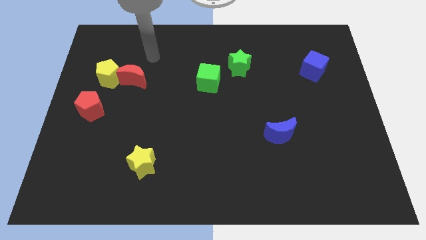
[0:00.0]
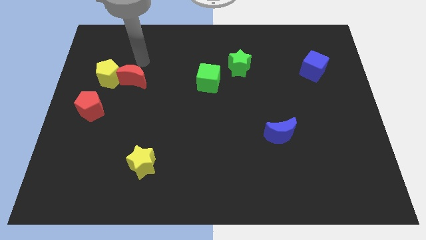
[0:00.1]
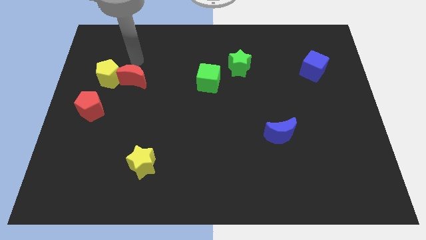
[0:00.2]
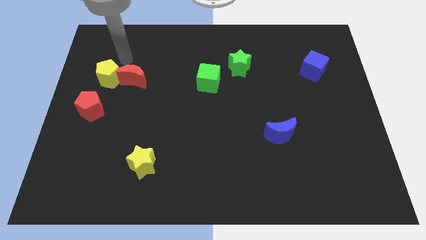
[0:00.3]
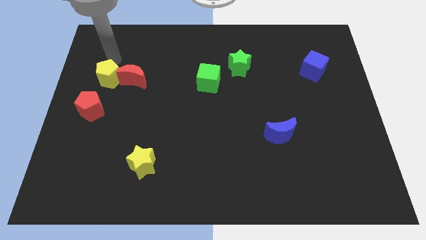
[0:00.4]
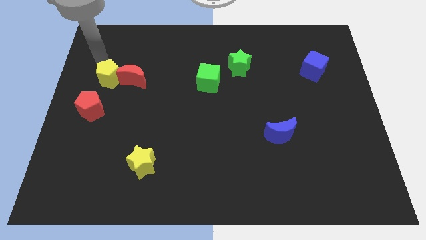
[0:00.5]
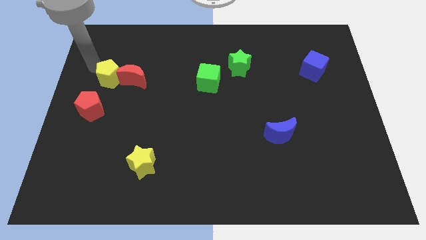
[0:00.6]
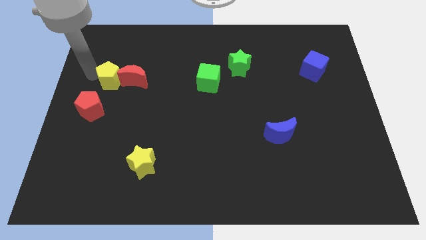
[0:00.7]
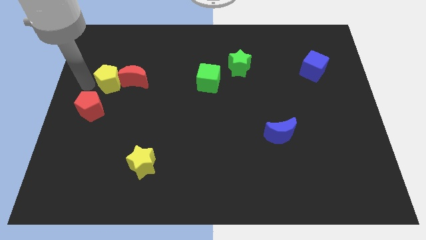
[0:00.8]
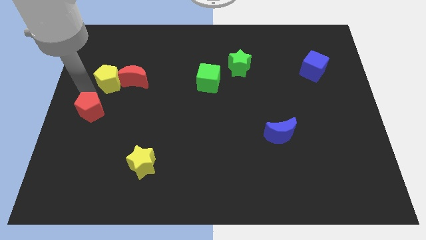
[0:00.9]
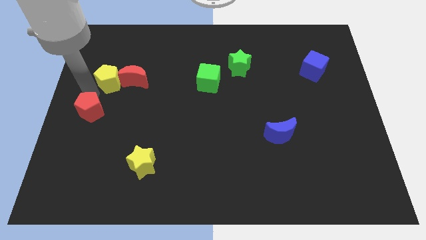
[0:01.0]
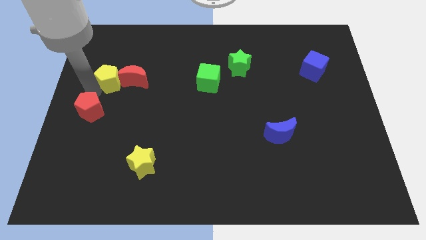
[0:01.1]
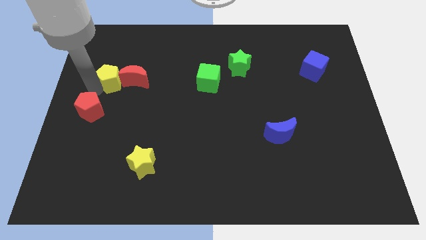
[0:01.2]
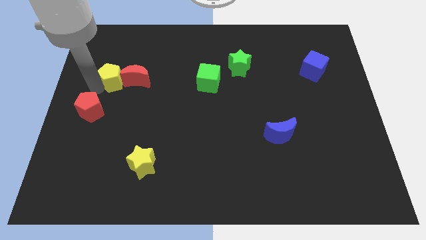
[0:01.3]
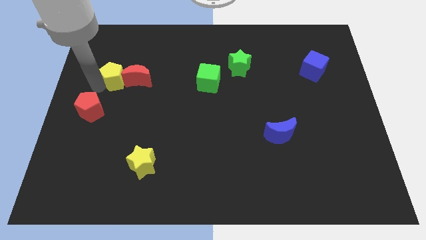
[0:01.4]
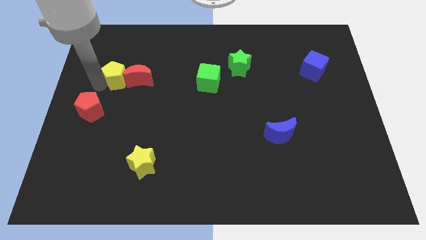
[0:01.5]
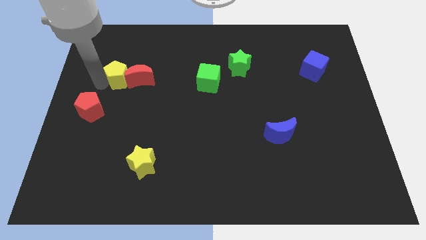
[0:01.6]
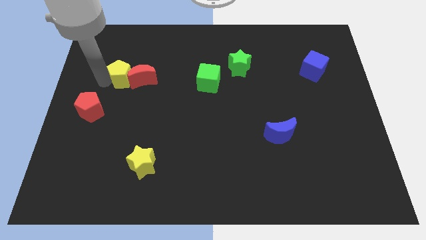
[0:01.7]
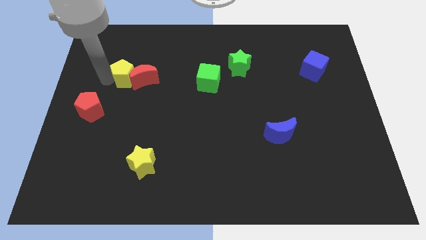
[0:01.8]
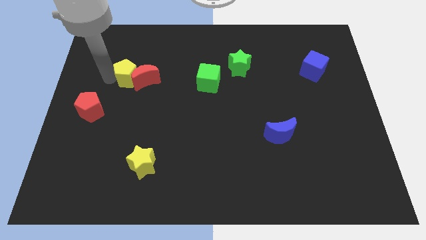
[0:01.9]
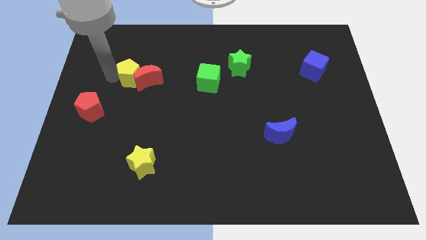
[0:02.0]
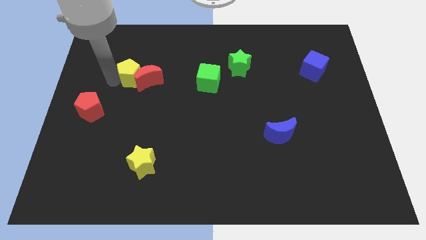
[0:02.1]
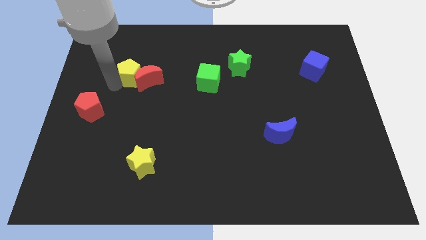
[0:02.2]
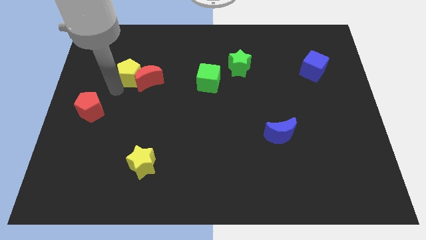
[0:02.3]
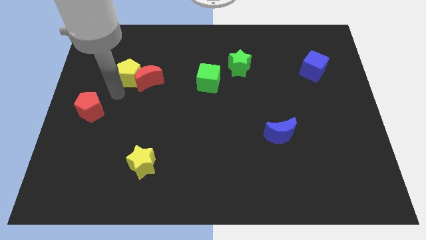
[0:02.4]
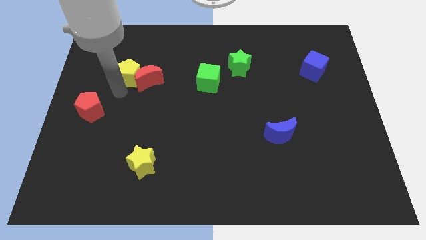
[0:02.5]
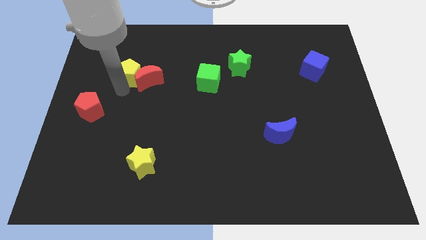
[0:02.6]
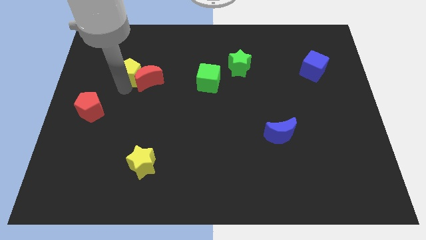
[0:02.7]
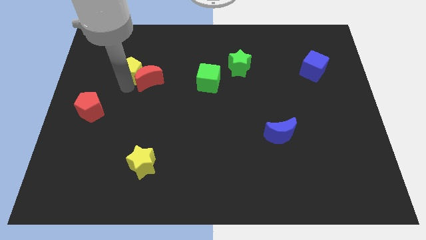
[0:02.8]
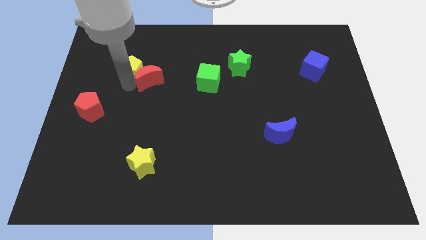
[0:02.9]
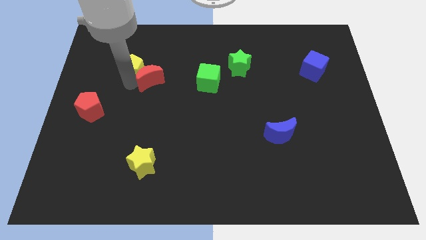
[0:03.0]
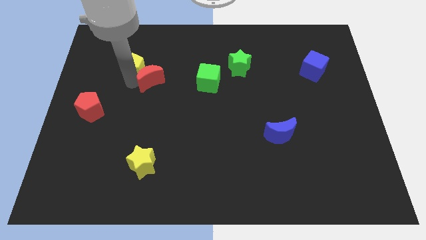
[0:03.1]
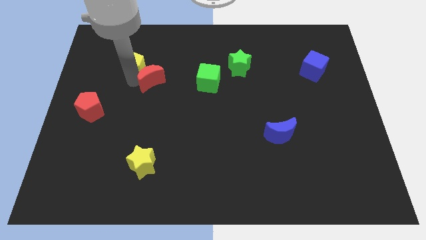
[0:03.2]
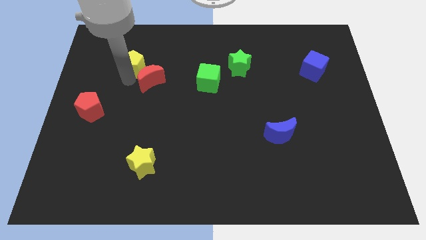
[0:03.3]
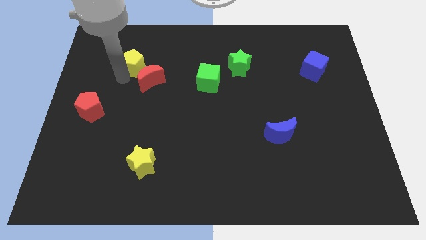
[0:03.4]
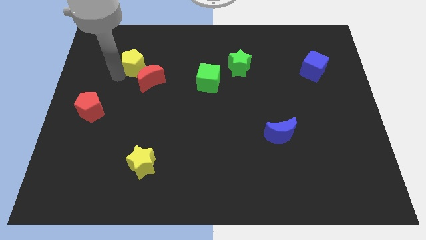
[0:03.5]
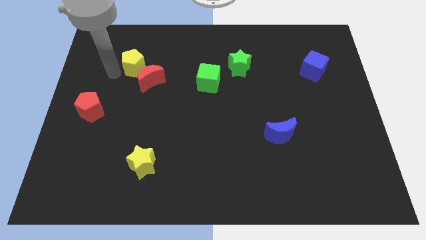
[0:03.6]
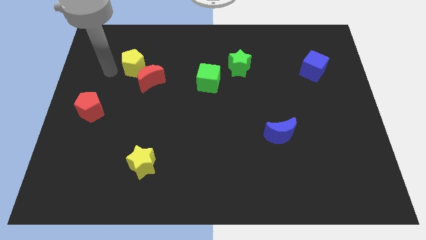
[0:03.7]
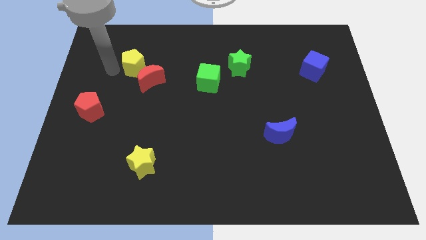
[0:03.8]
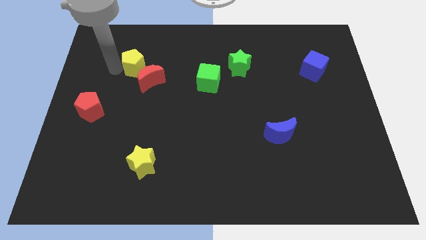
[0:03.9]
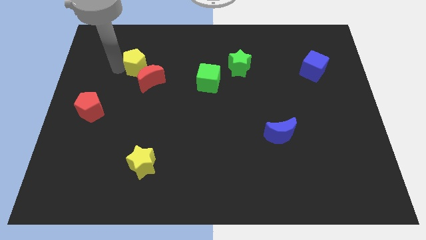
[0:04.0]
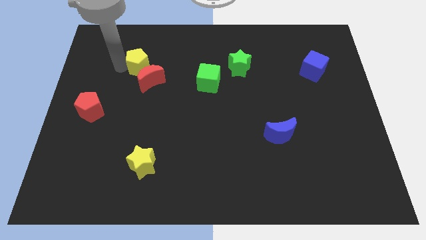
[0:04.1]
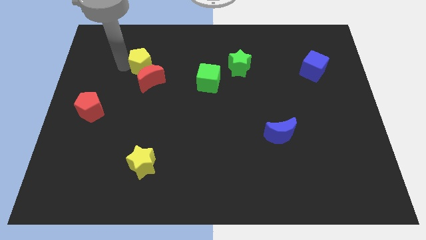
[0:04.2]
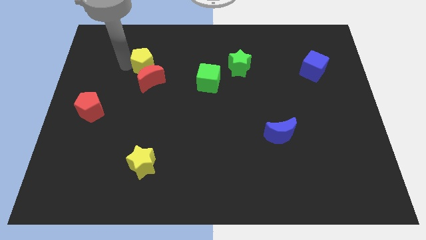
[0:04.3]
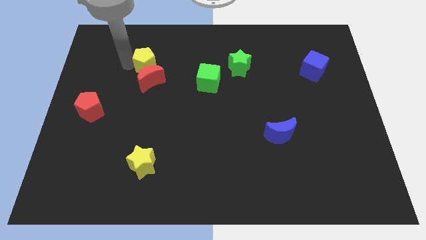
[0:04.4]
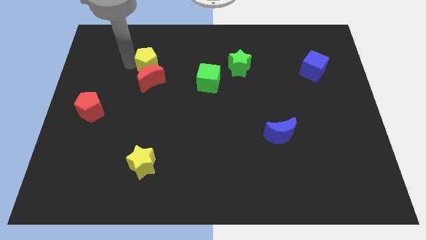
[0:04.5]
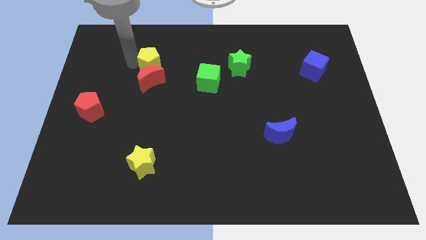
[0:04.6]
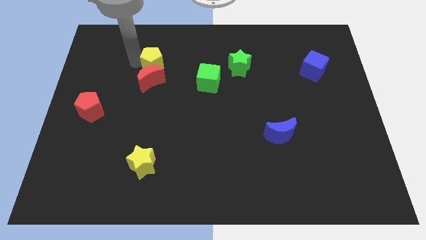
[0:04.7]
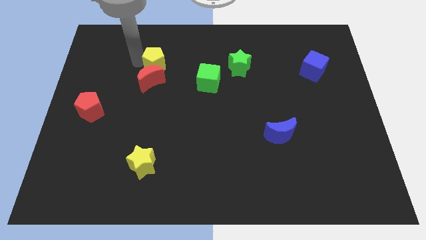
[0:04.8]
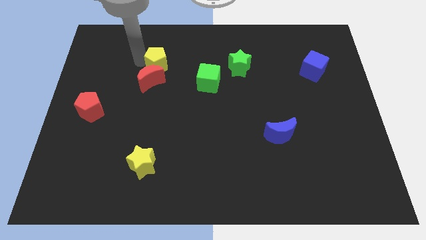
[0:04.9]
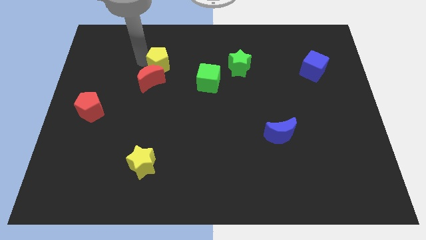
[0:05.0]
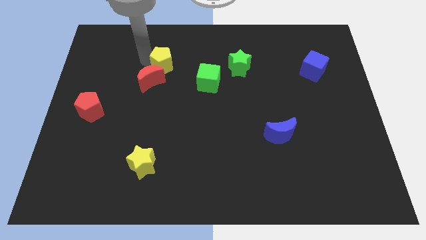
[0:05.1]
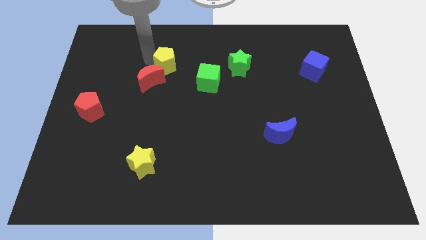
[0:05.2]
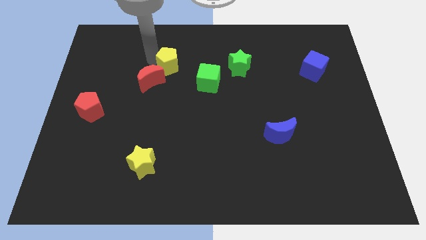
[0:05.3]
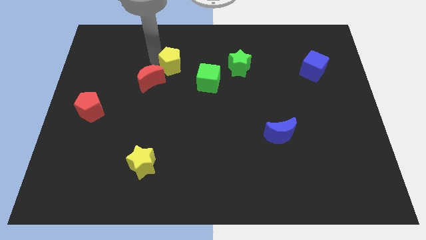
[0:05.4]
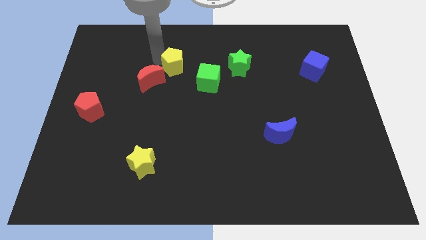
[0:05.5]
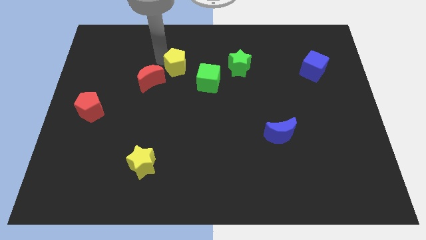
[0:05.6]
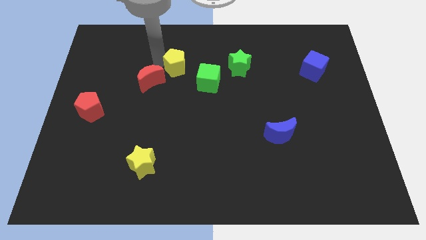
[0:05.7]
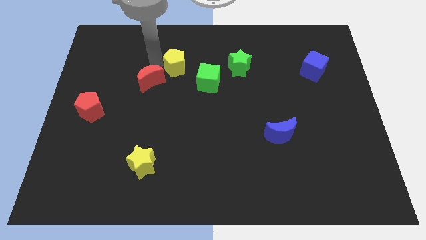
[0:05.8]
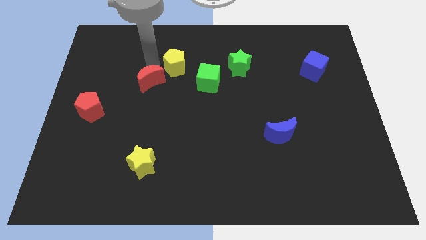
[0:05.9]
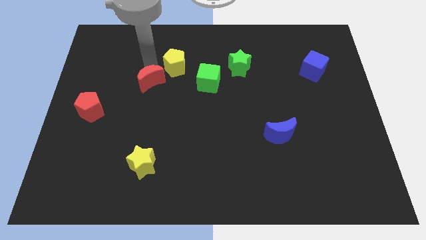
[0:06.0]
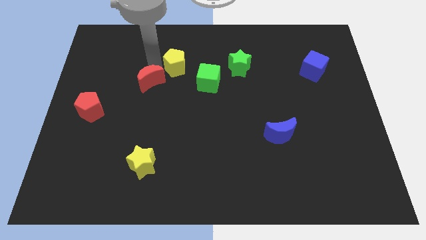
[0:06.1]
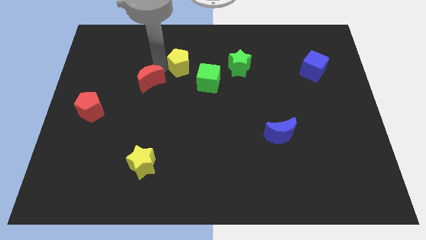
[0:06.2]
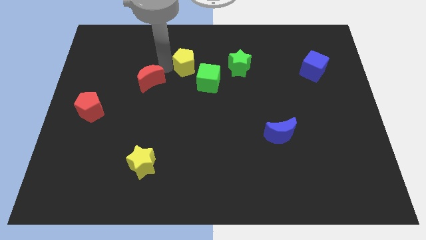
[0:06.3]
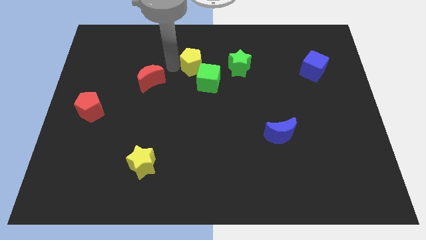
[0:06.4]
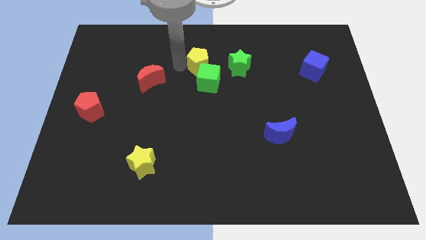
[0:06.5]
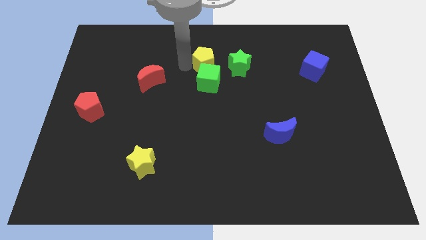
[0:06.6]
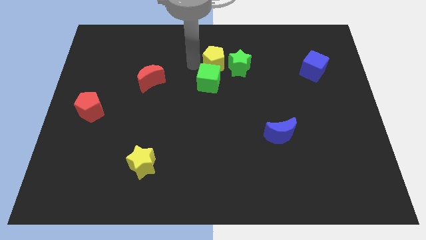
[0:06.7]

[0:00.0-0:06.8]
put the yellow pentagon close to the green star
